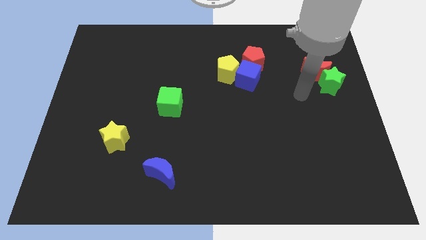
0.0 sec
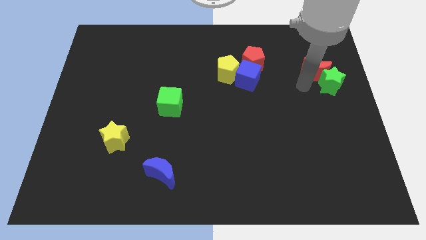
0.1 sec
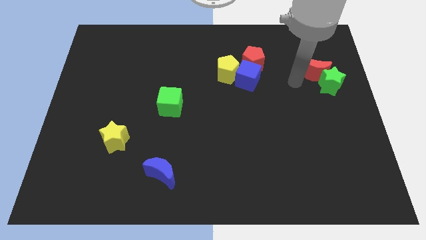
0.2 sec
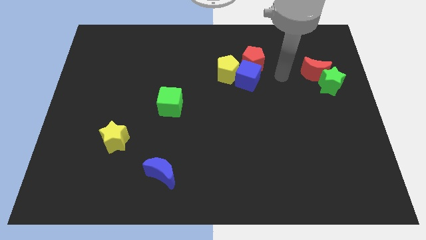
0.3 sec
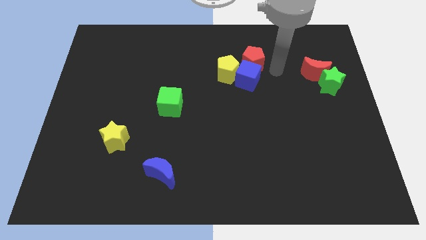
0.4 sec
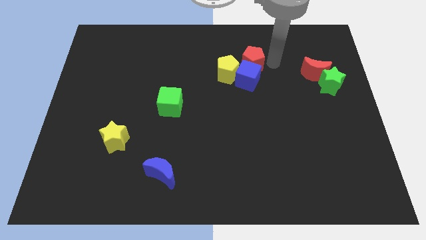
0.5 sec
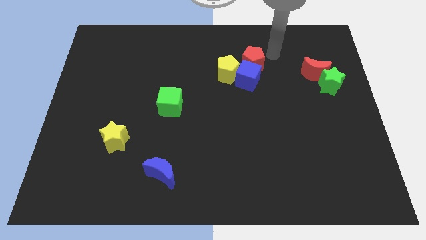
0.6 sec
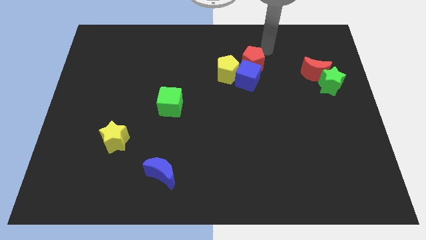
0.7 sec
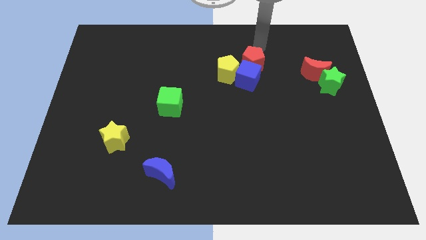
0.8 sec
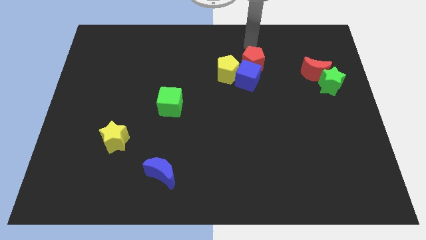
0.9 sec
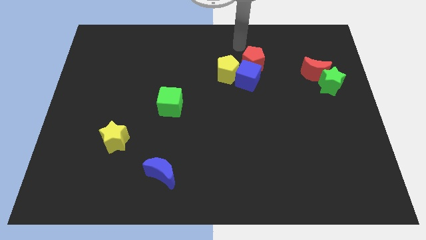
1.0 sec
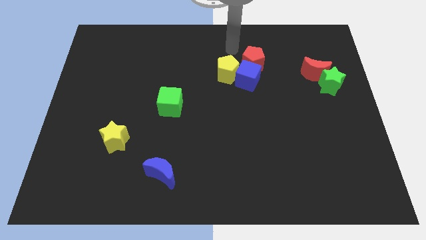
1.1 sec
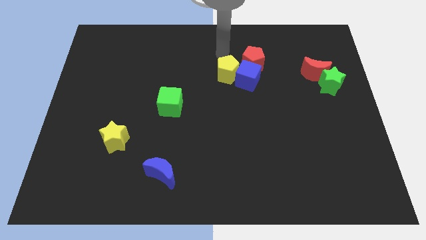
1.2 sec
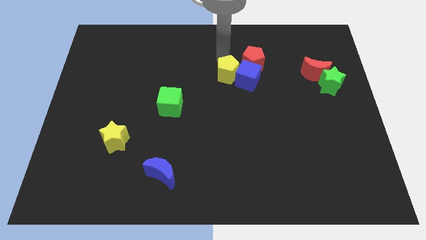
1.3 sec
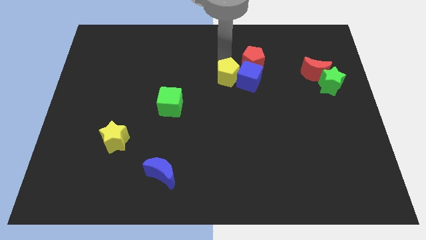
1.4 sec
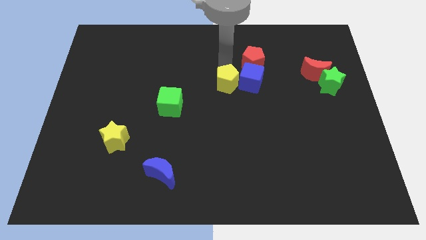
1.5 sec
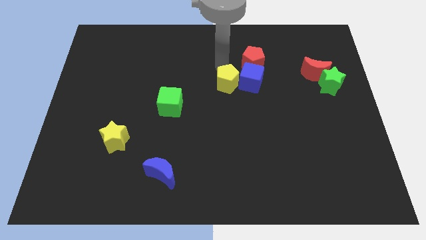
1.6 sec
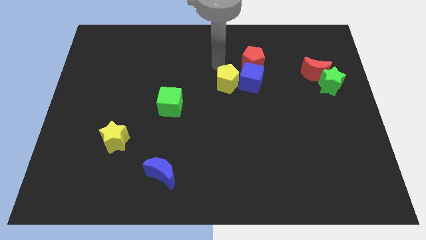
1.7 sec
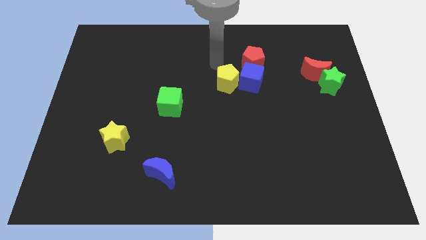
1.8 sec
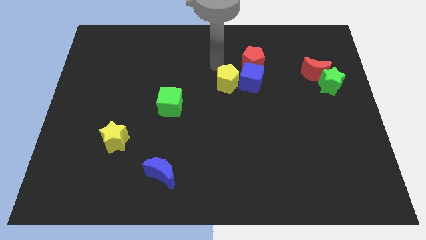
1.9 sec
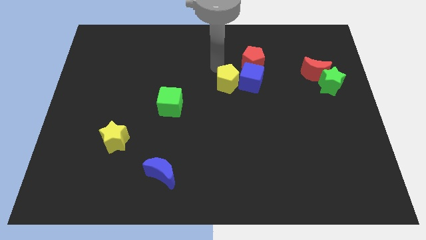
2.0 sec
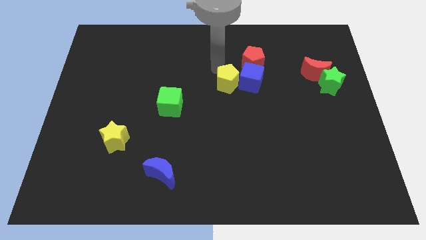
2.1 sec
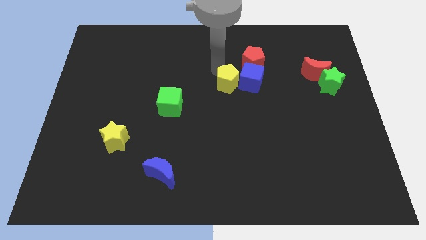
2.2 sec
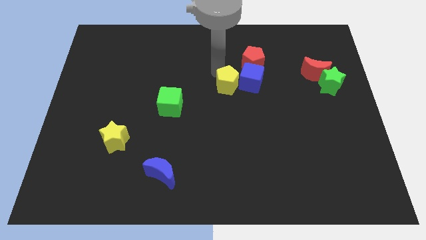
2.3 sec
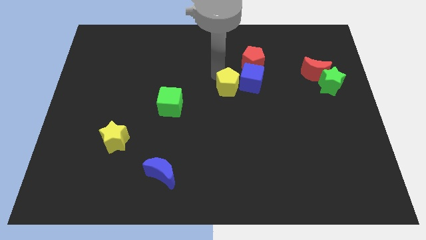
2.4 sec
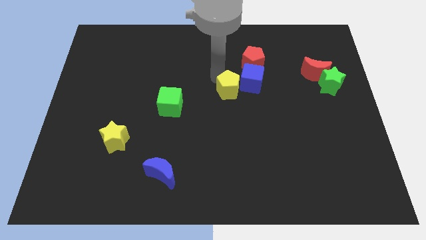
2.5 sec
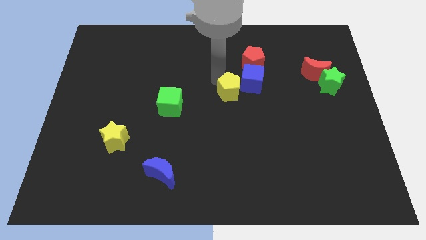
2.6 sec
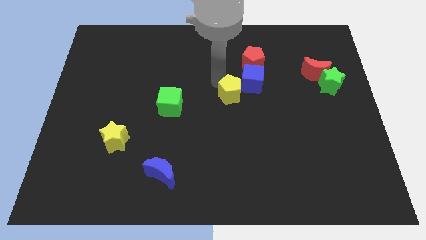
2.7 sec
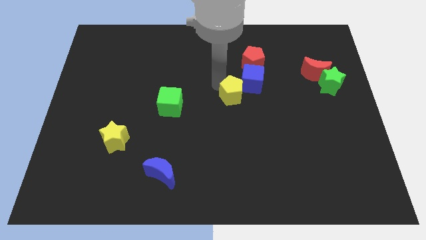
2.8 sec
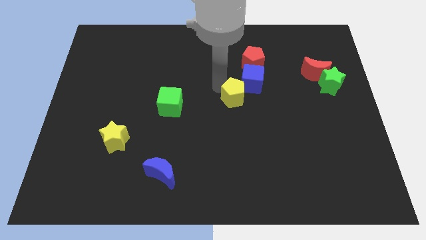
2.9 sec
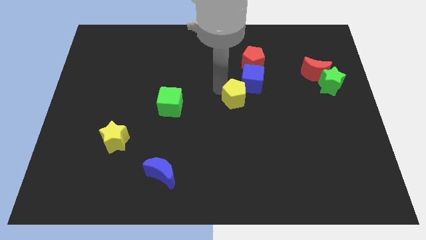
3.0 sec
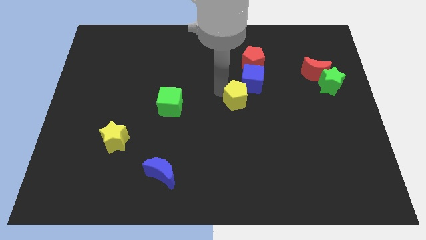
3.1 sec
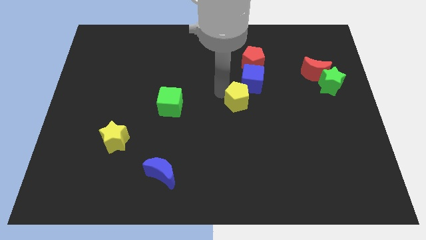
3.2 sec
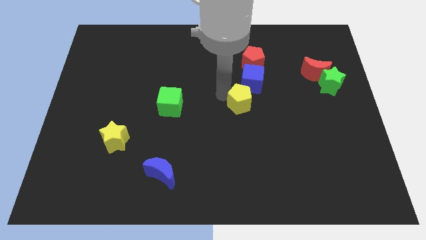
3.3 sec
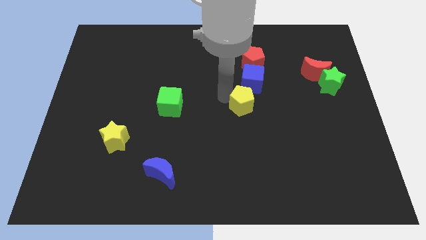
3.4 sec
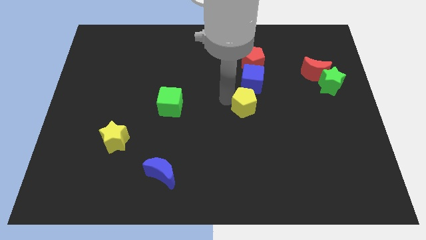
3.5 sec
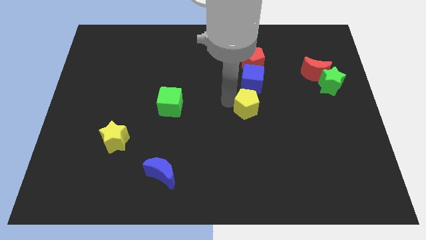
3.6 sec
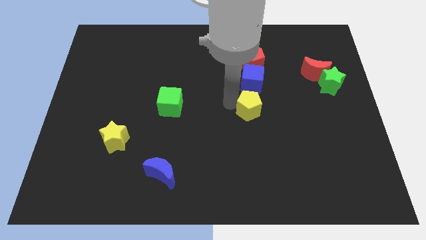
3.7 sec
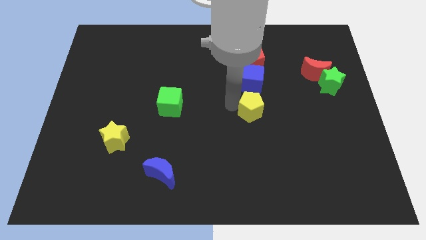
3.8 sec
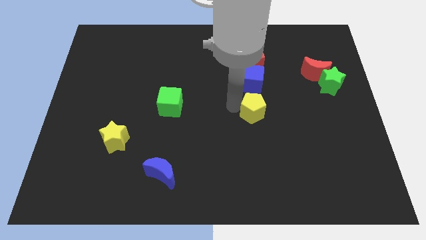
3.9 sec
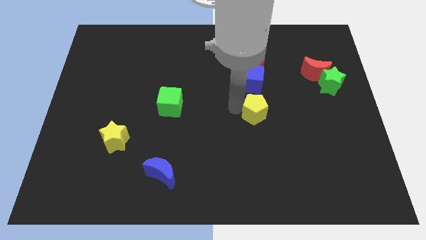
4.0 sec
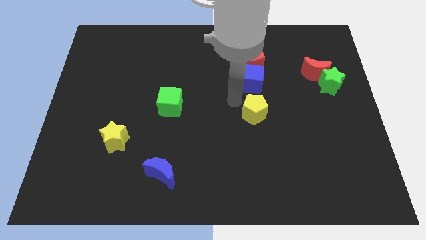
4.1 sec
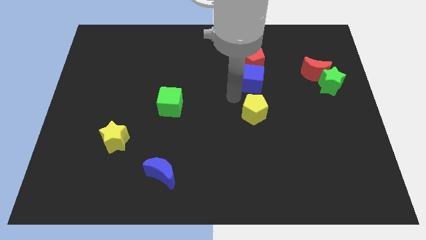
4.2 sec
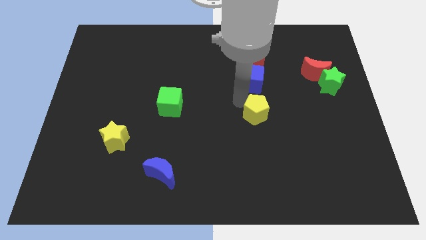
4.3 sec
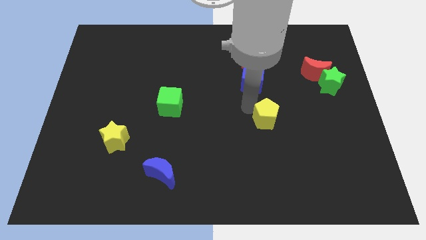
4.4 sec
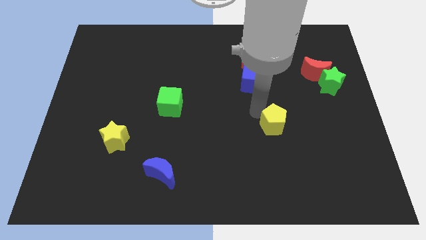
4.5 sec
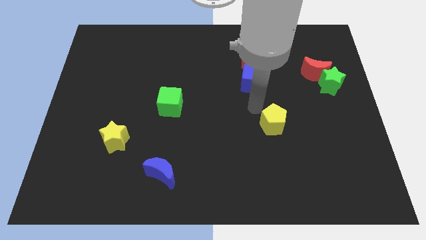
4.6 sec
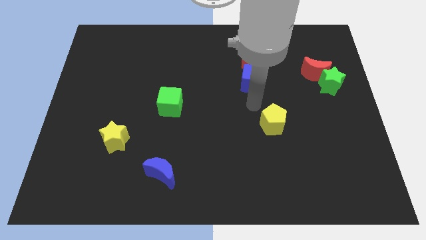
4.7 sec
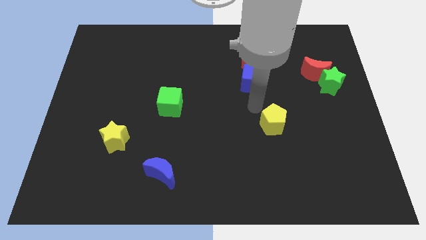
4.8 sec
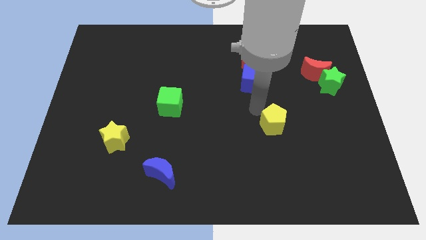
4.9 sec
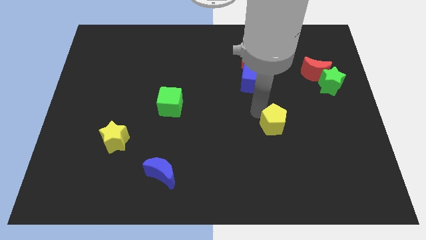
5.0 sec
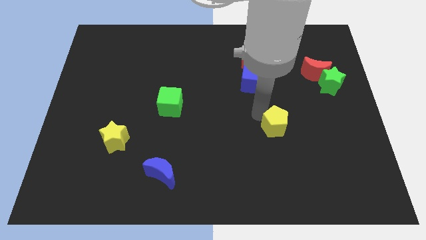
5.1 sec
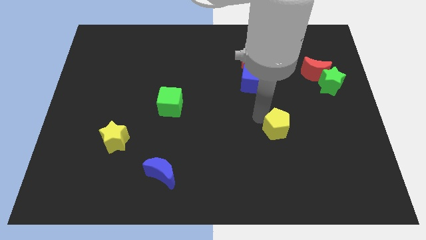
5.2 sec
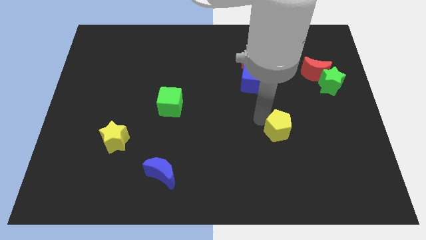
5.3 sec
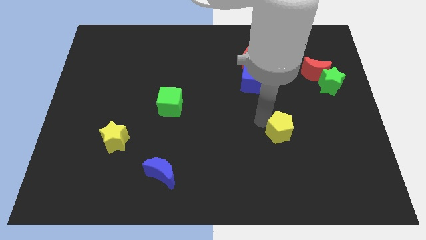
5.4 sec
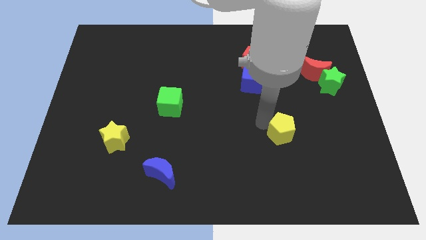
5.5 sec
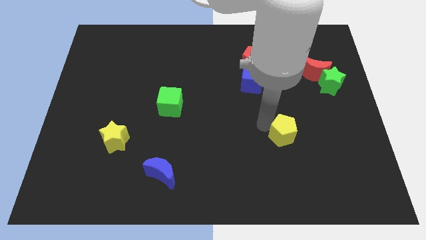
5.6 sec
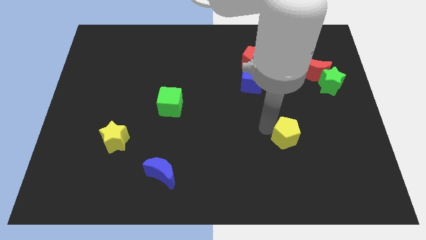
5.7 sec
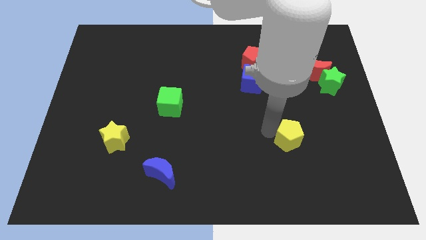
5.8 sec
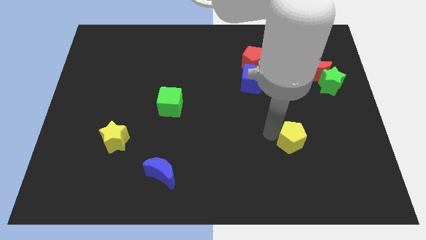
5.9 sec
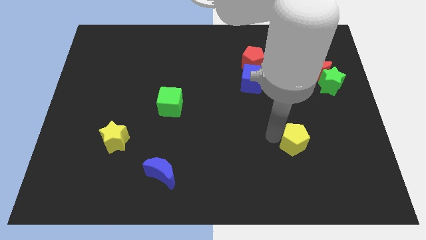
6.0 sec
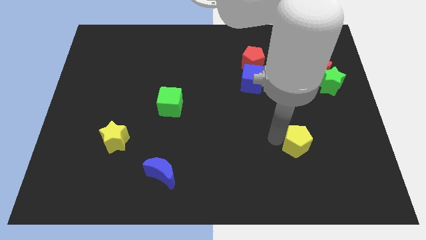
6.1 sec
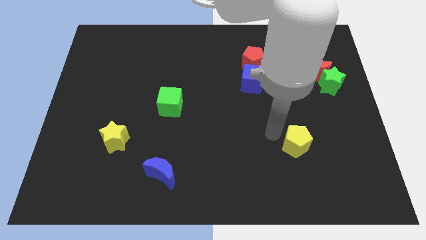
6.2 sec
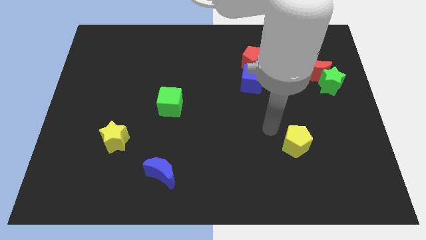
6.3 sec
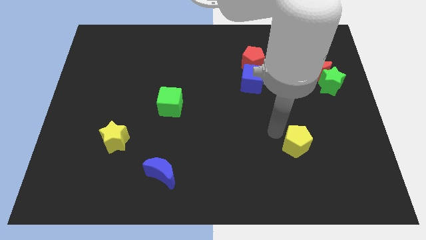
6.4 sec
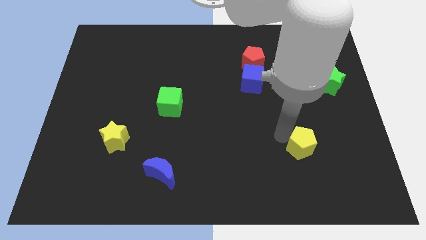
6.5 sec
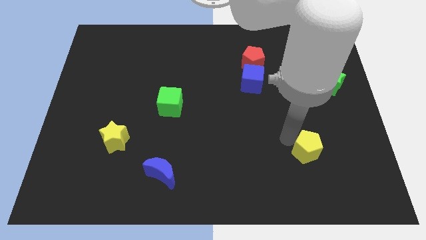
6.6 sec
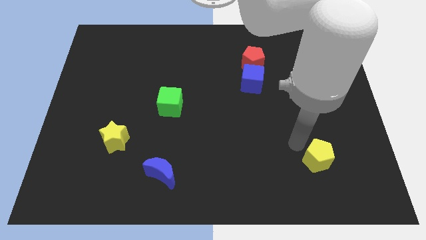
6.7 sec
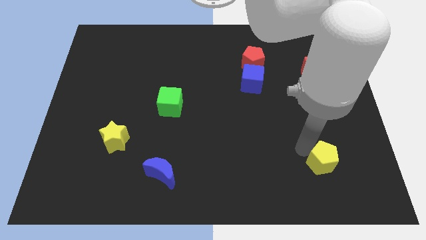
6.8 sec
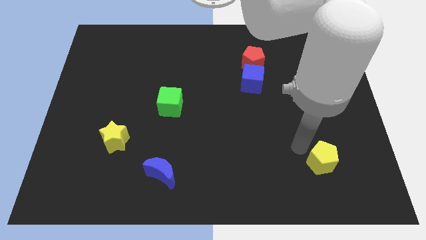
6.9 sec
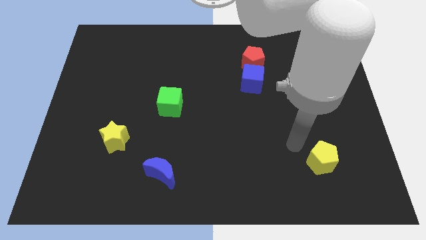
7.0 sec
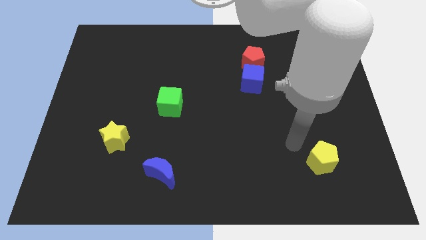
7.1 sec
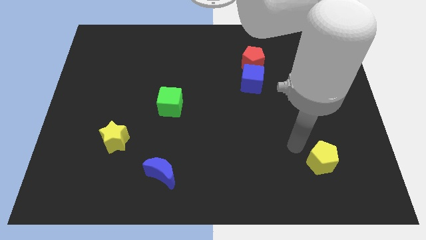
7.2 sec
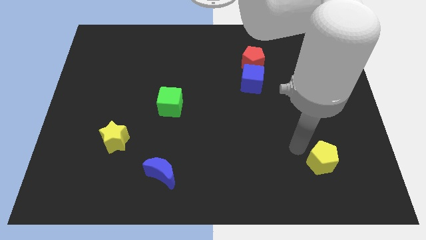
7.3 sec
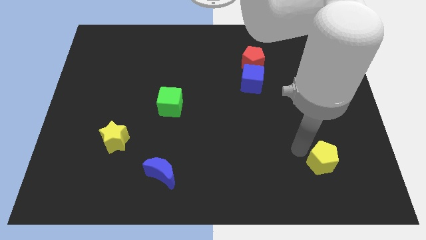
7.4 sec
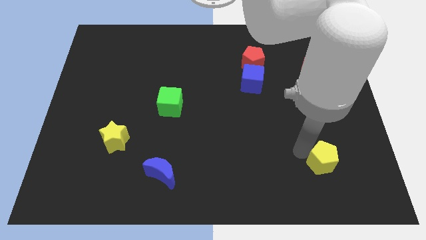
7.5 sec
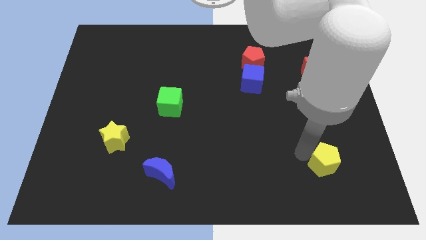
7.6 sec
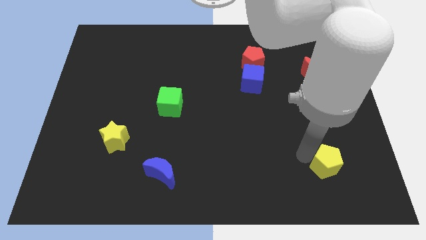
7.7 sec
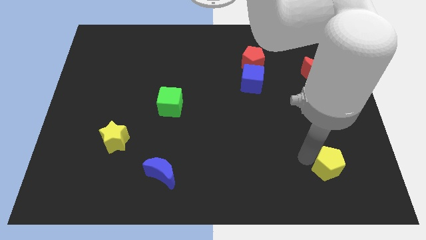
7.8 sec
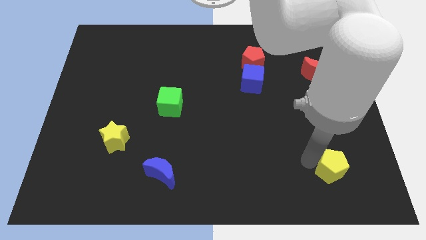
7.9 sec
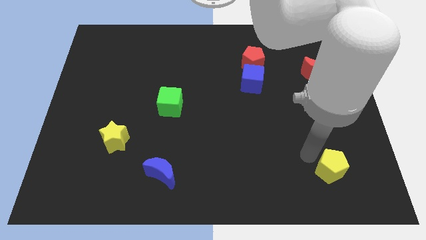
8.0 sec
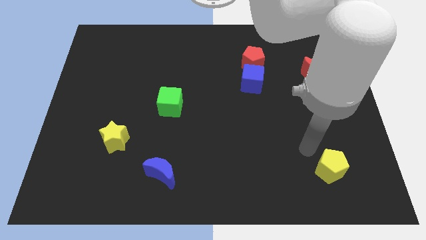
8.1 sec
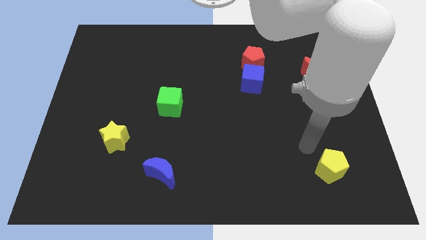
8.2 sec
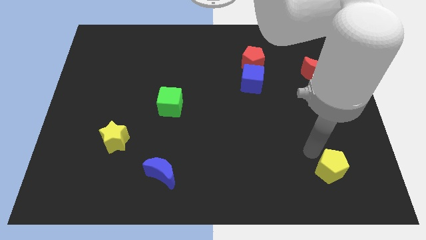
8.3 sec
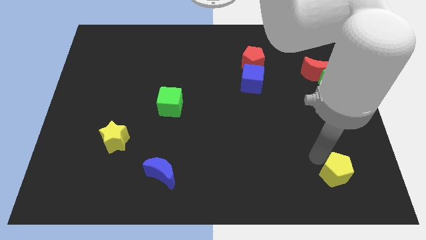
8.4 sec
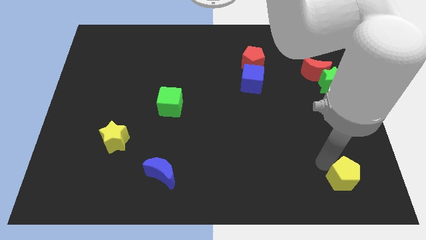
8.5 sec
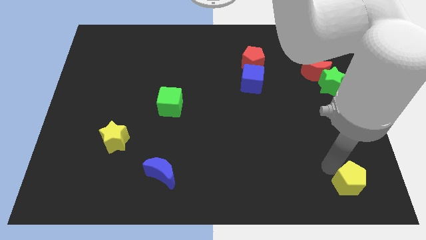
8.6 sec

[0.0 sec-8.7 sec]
slide the yellow pentagon to the lower right corner
